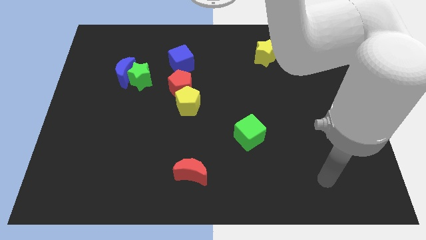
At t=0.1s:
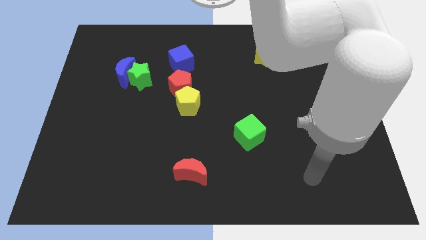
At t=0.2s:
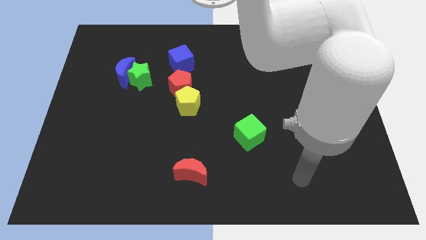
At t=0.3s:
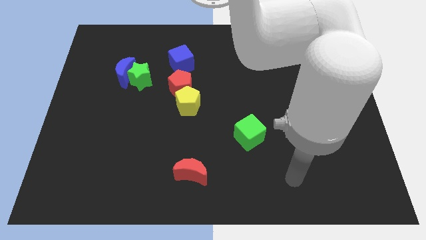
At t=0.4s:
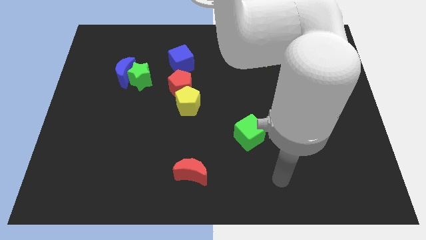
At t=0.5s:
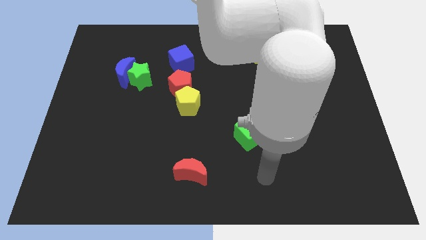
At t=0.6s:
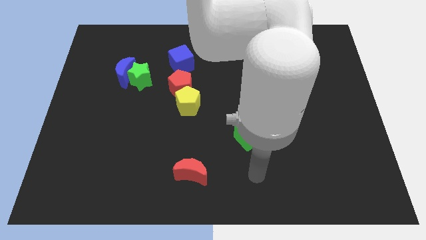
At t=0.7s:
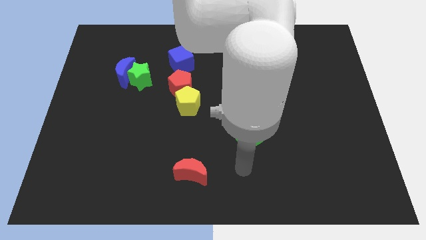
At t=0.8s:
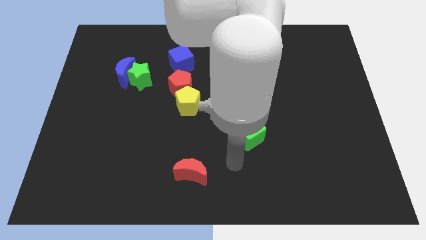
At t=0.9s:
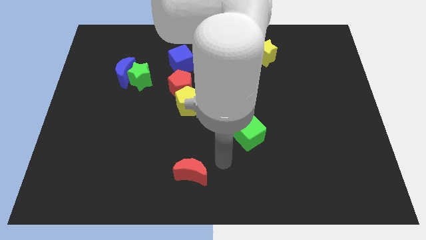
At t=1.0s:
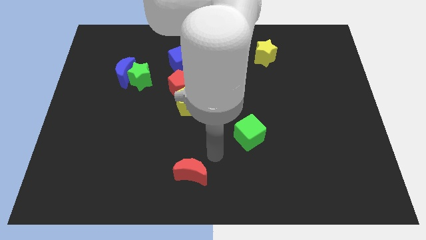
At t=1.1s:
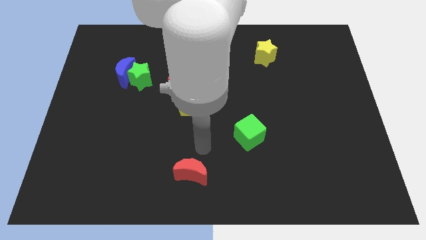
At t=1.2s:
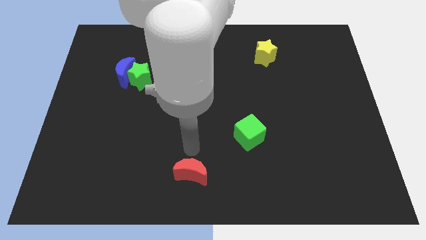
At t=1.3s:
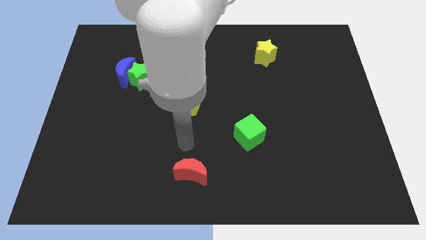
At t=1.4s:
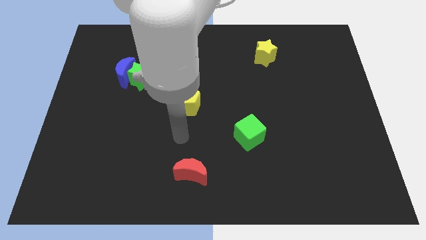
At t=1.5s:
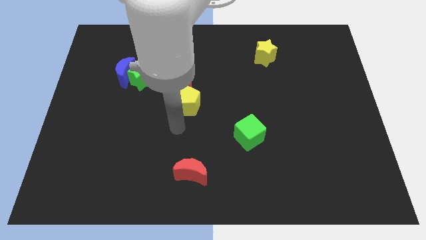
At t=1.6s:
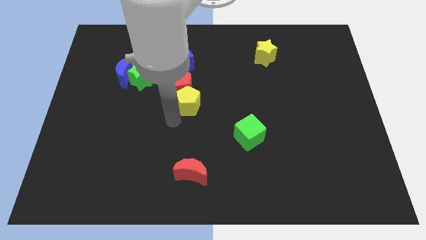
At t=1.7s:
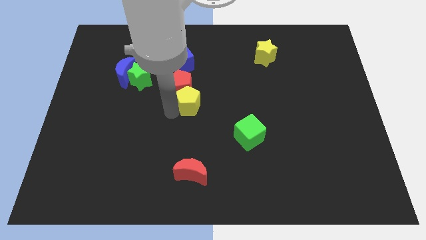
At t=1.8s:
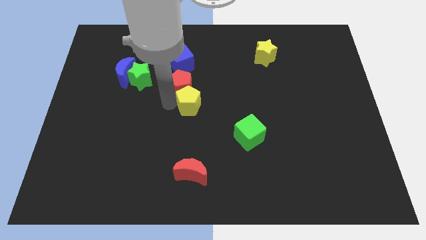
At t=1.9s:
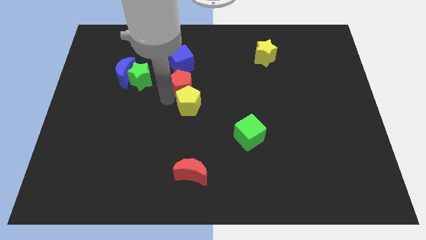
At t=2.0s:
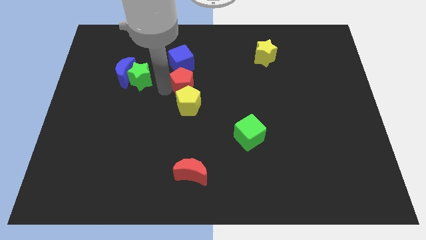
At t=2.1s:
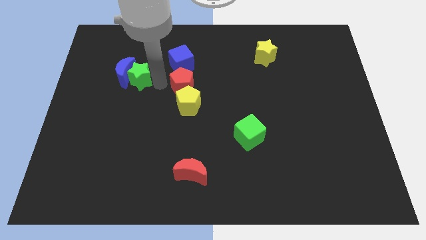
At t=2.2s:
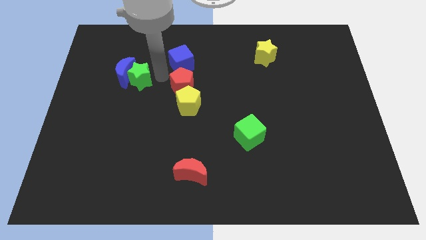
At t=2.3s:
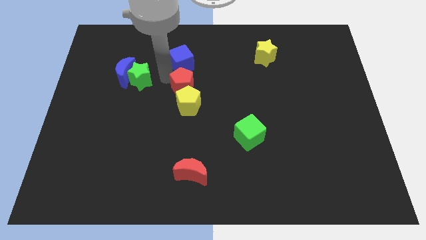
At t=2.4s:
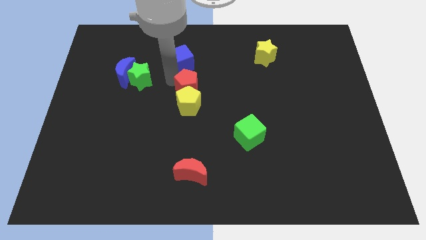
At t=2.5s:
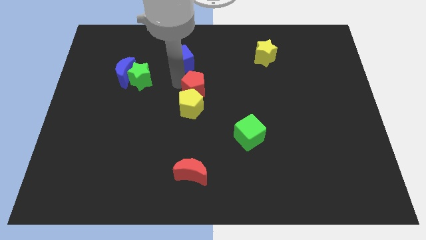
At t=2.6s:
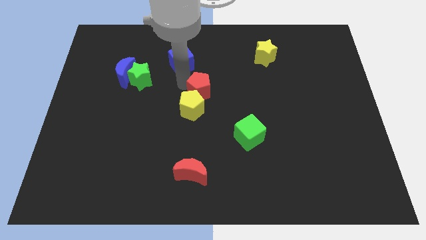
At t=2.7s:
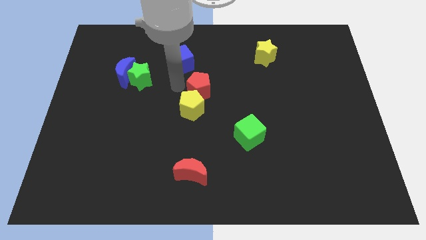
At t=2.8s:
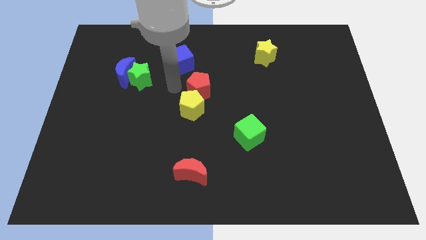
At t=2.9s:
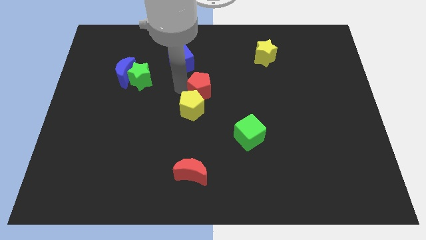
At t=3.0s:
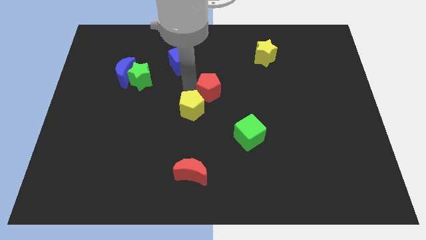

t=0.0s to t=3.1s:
push the red pentagon to the right a bit

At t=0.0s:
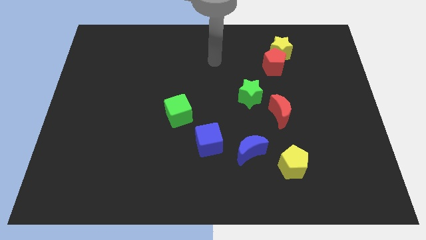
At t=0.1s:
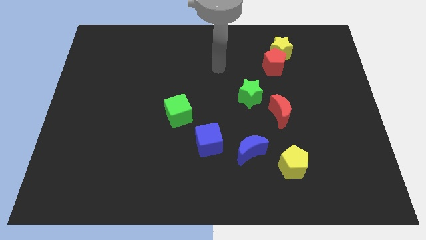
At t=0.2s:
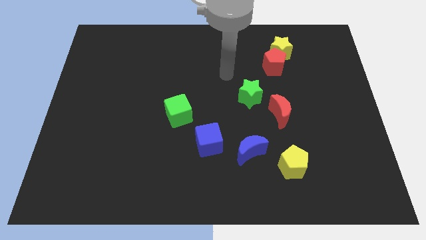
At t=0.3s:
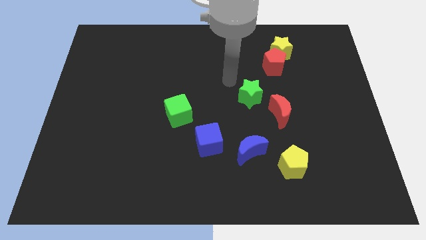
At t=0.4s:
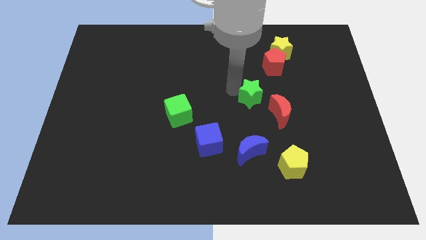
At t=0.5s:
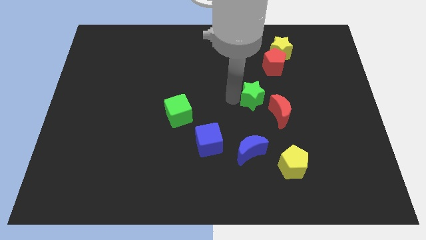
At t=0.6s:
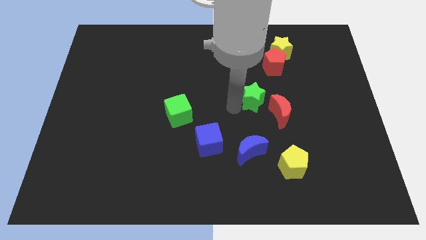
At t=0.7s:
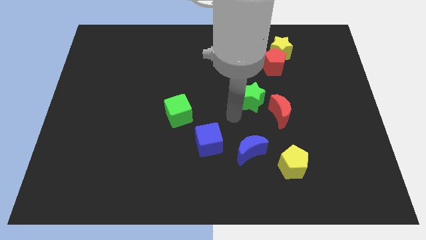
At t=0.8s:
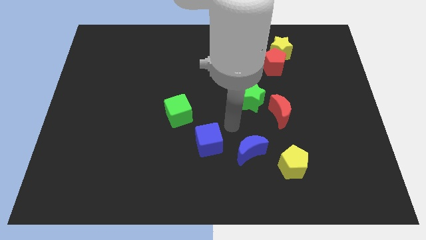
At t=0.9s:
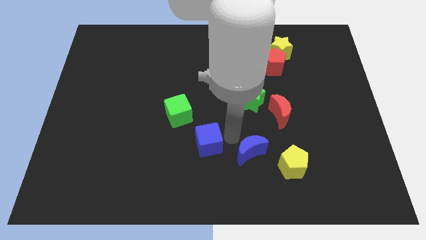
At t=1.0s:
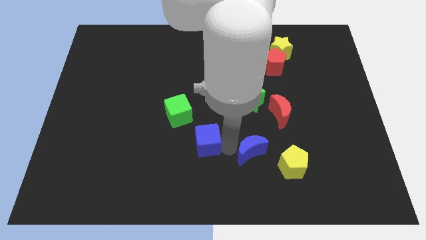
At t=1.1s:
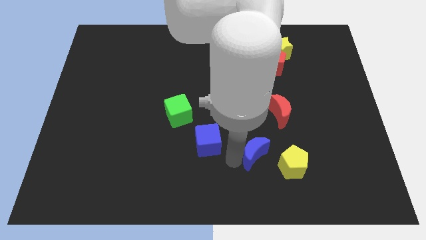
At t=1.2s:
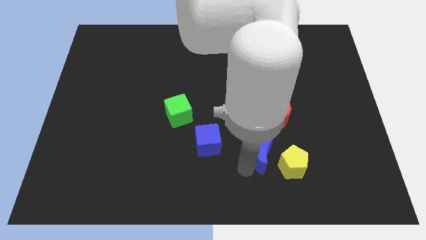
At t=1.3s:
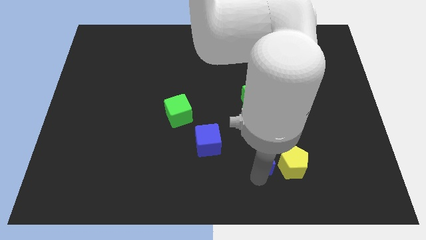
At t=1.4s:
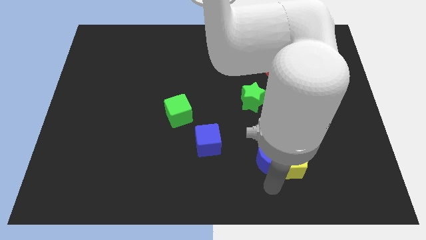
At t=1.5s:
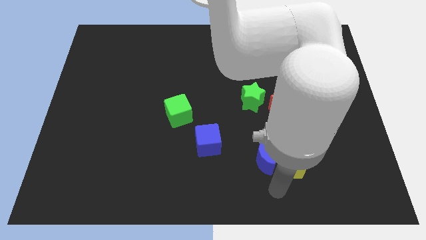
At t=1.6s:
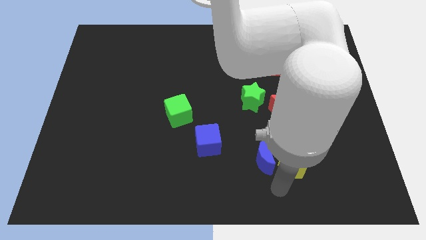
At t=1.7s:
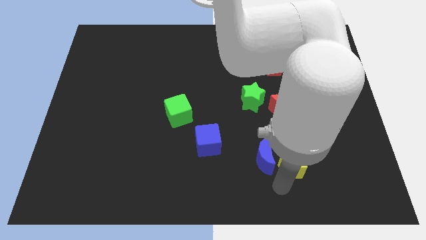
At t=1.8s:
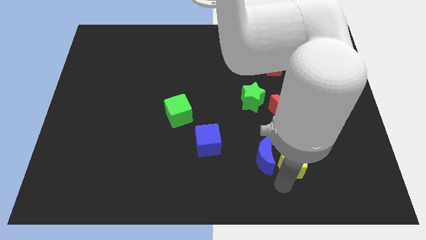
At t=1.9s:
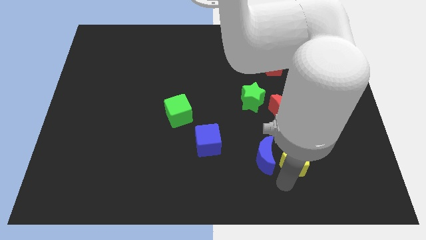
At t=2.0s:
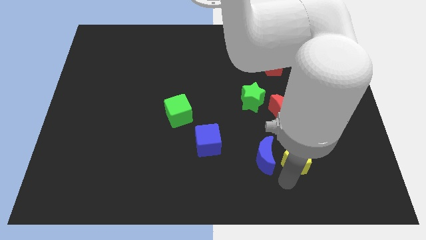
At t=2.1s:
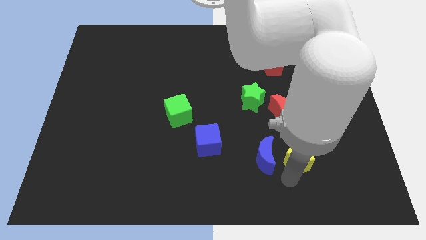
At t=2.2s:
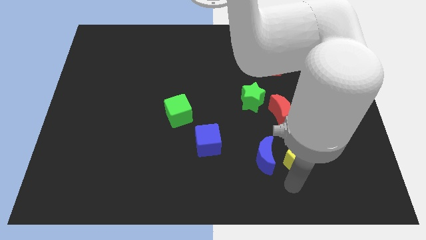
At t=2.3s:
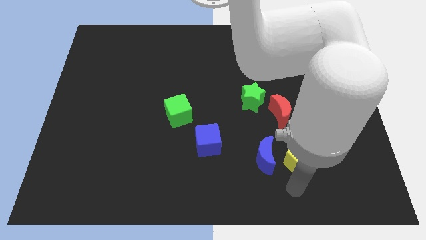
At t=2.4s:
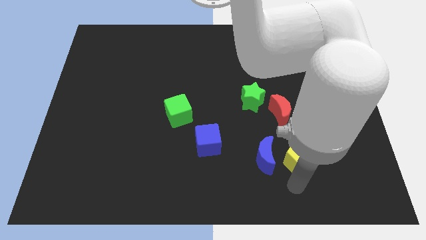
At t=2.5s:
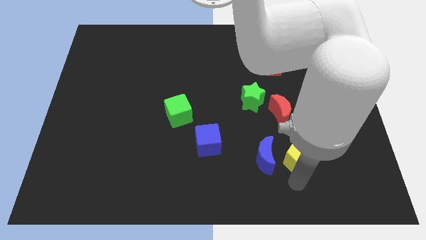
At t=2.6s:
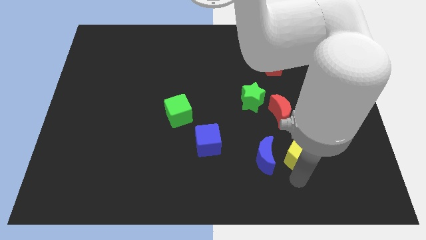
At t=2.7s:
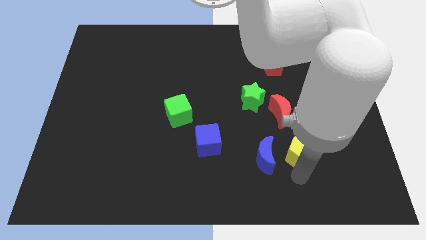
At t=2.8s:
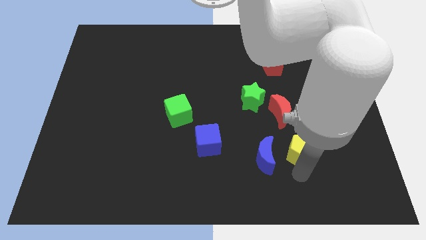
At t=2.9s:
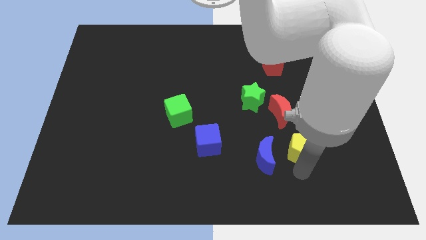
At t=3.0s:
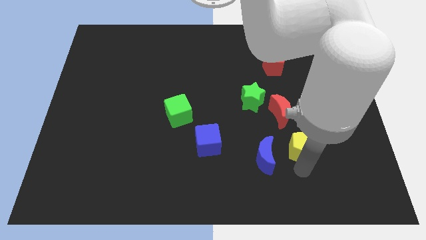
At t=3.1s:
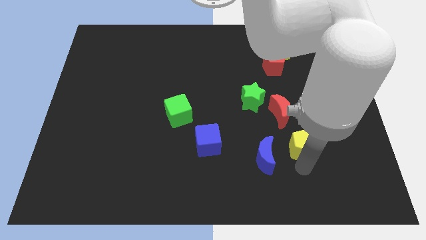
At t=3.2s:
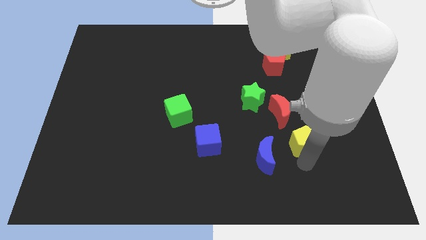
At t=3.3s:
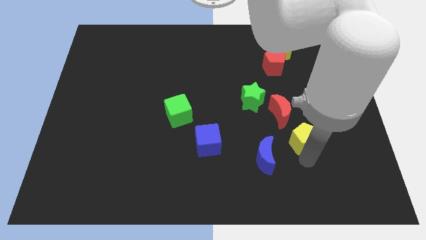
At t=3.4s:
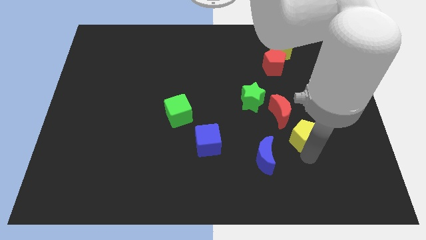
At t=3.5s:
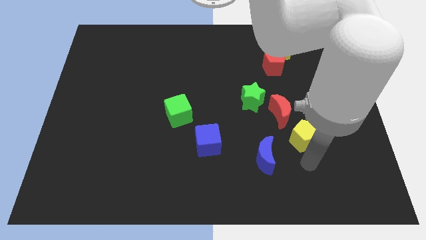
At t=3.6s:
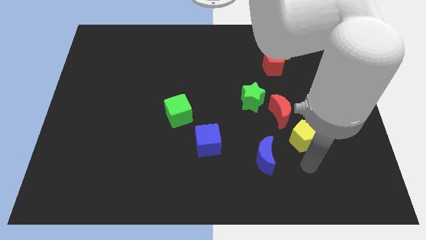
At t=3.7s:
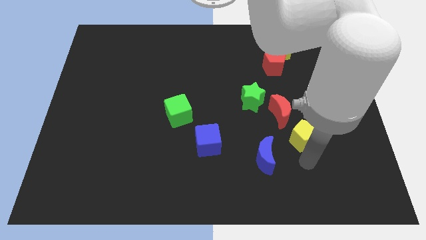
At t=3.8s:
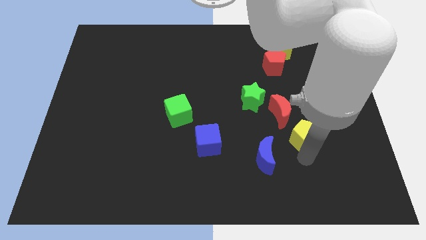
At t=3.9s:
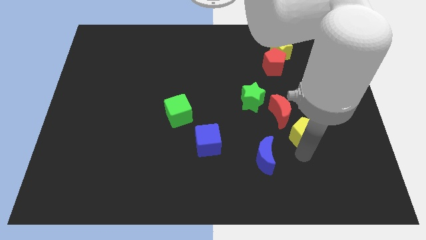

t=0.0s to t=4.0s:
slightly slide the yellow pentagon up

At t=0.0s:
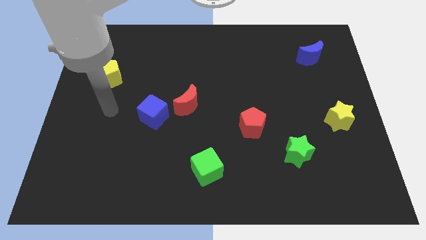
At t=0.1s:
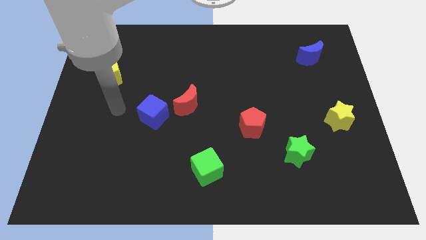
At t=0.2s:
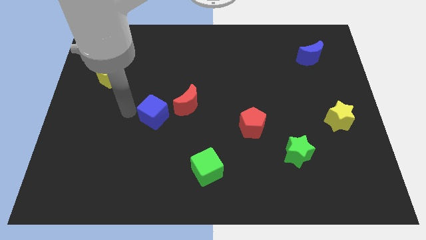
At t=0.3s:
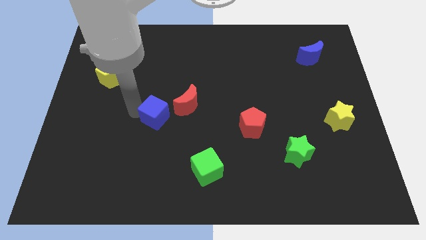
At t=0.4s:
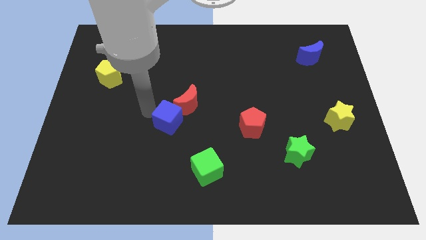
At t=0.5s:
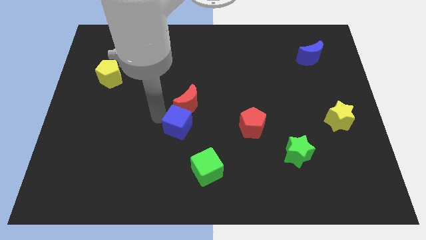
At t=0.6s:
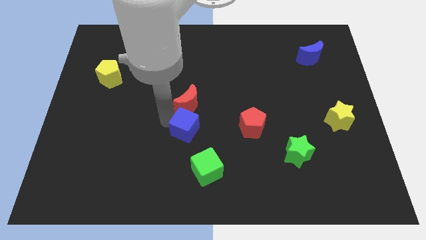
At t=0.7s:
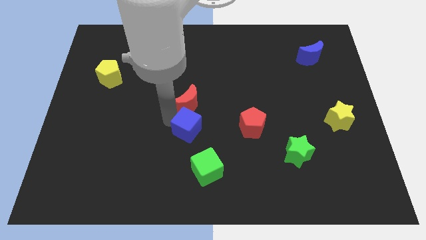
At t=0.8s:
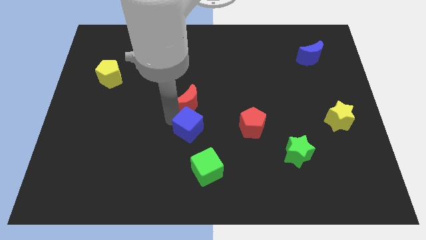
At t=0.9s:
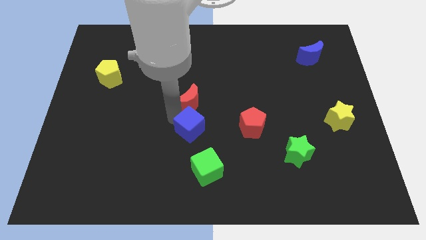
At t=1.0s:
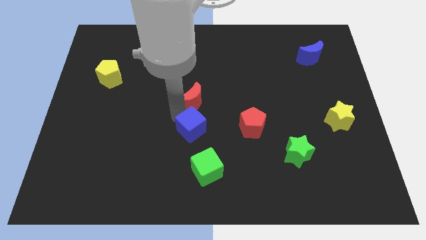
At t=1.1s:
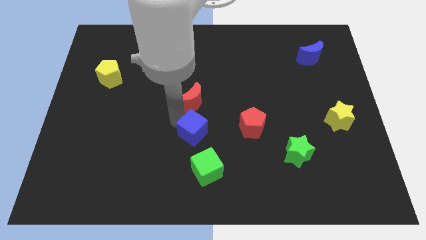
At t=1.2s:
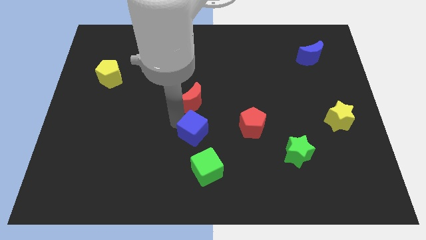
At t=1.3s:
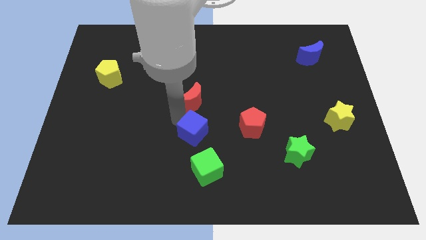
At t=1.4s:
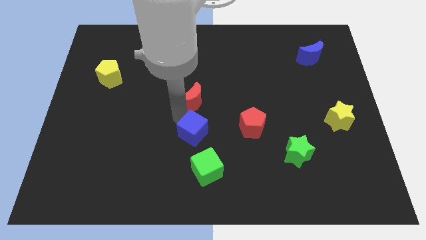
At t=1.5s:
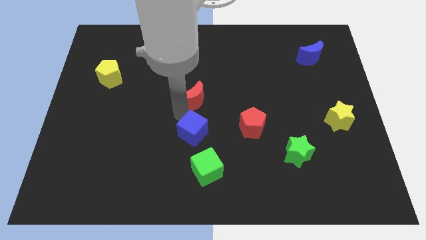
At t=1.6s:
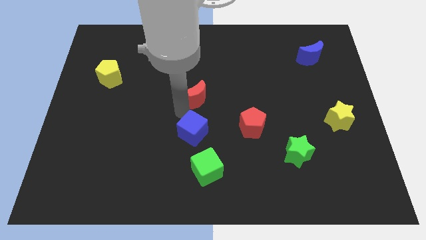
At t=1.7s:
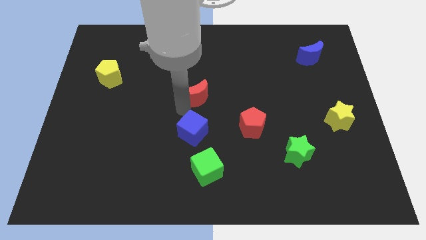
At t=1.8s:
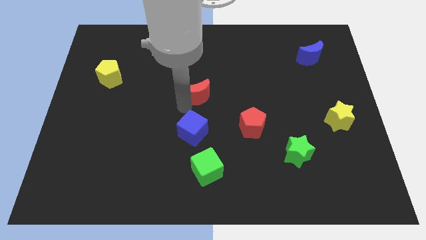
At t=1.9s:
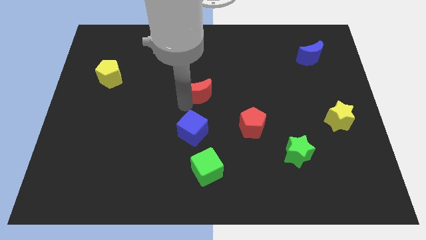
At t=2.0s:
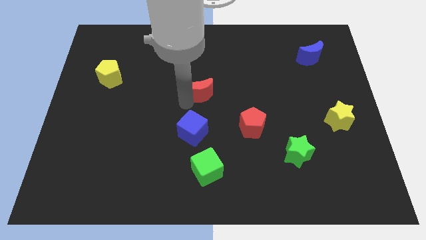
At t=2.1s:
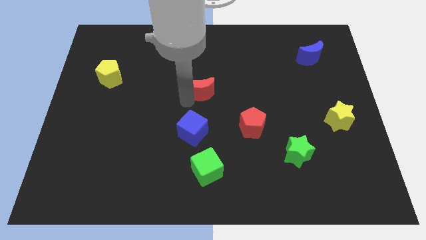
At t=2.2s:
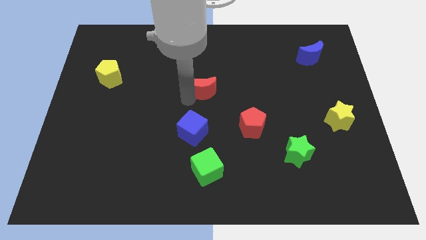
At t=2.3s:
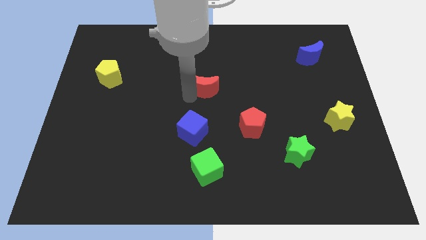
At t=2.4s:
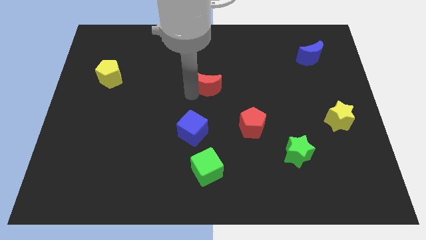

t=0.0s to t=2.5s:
slightly move the red moon up and right diagonally
